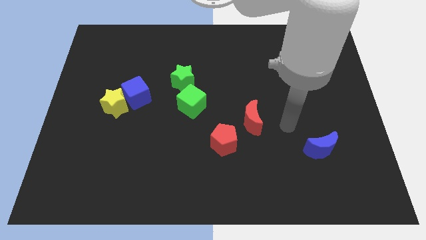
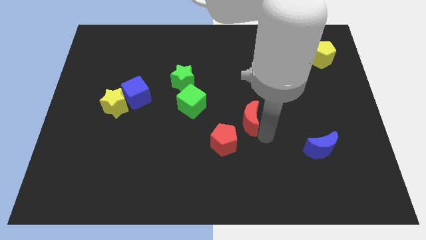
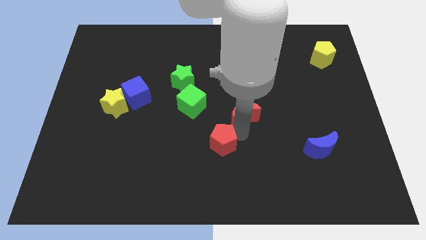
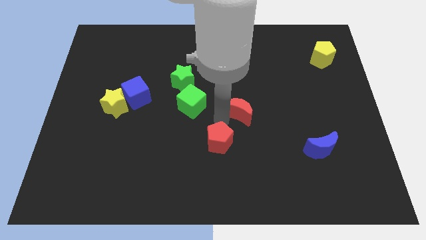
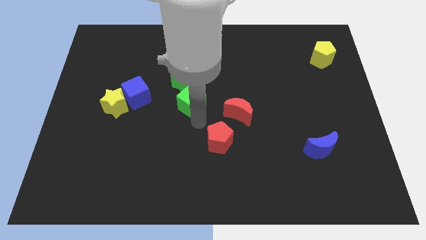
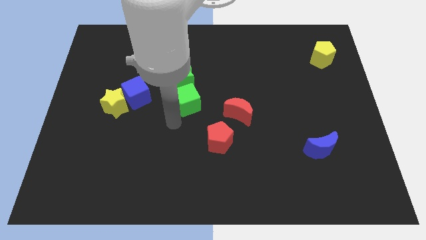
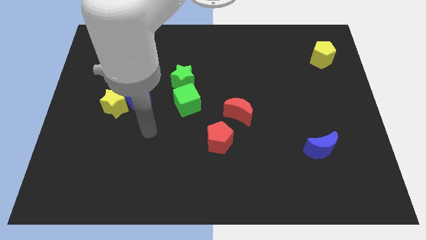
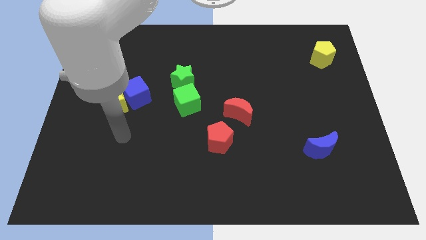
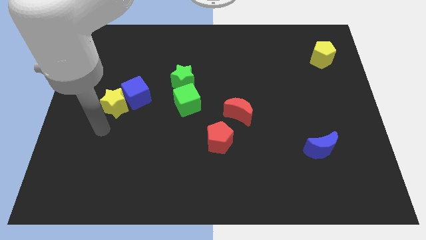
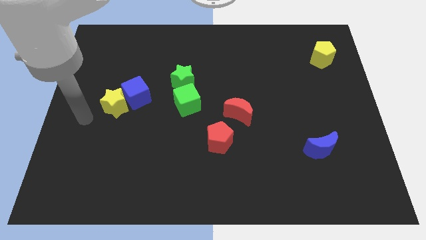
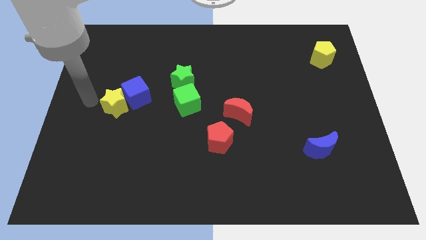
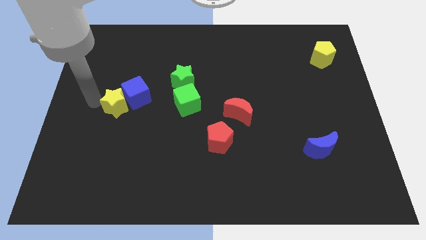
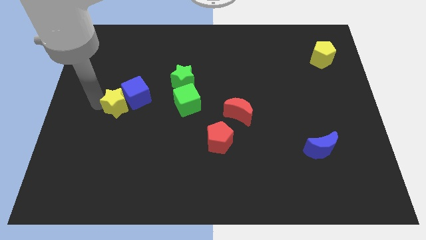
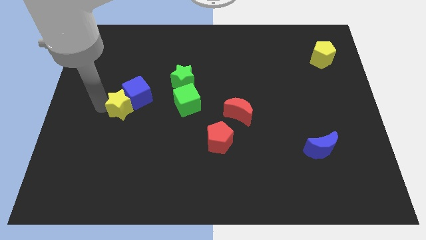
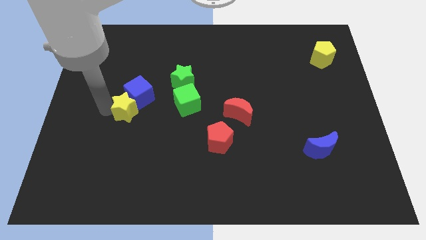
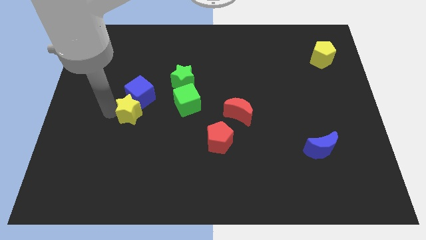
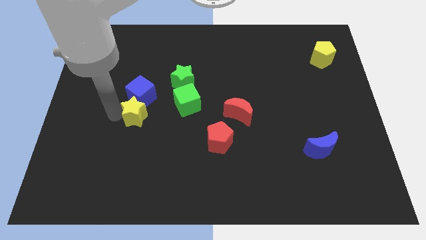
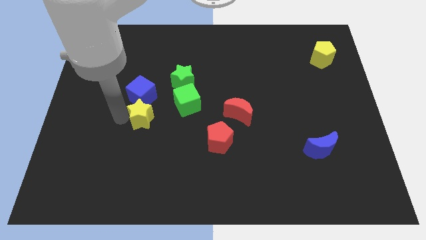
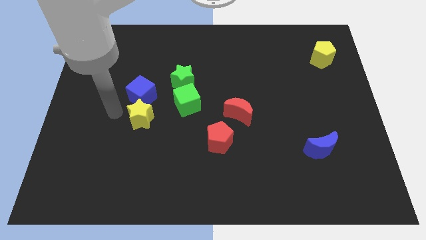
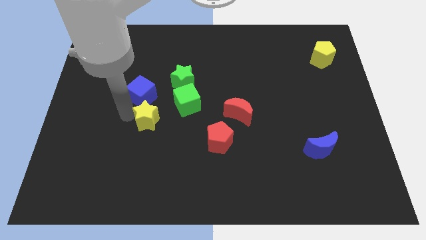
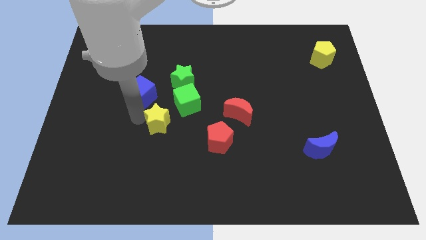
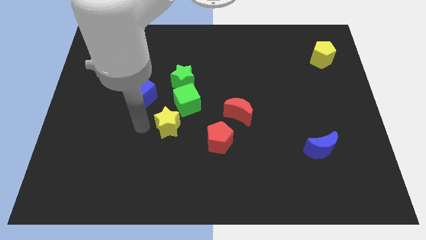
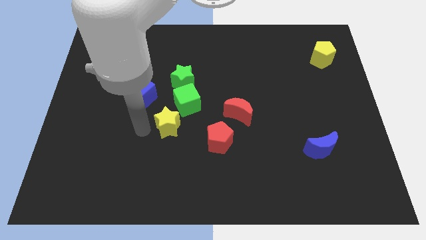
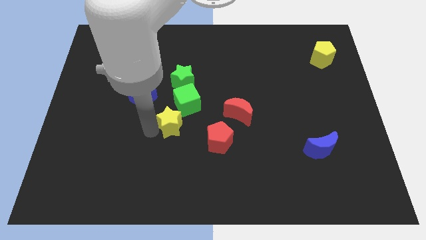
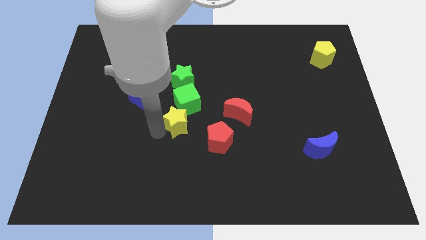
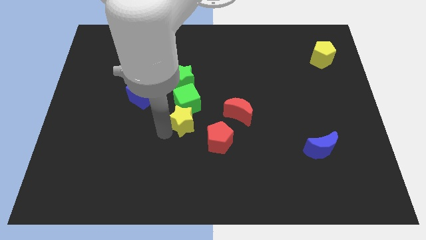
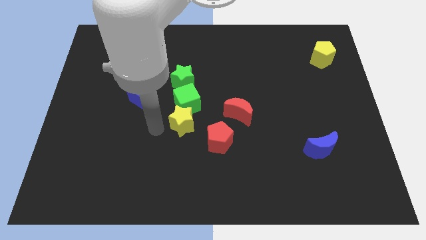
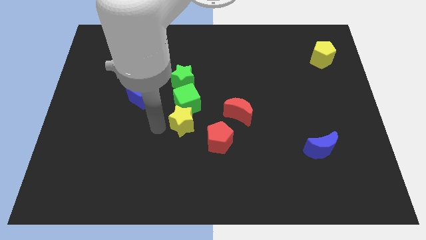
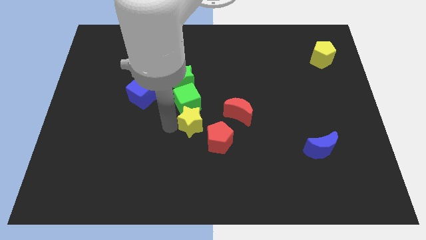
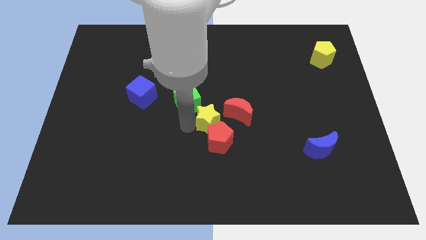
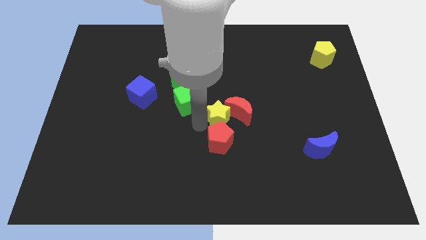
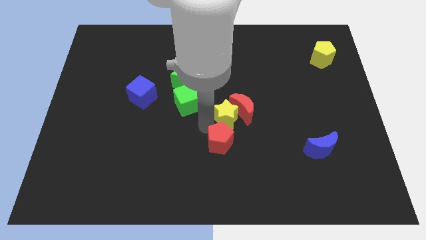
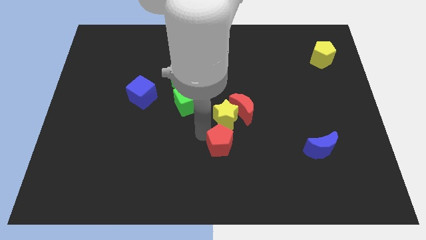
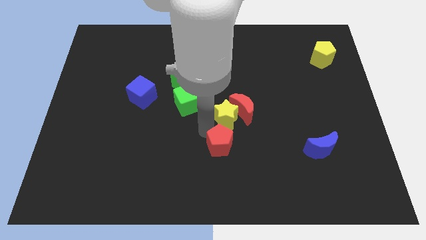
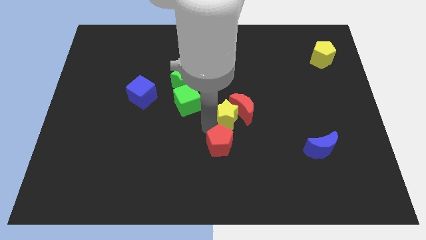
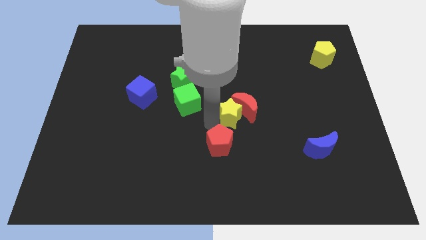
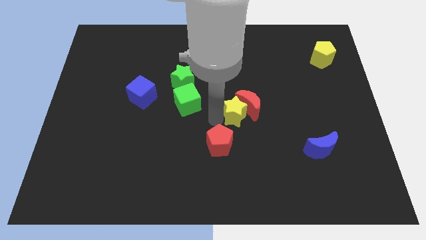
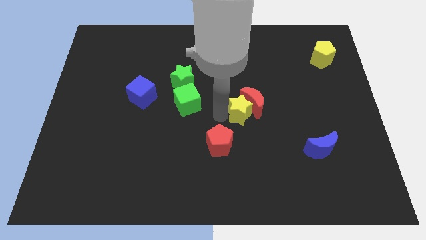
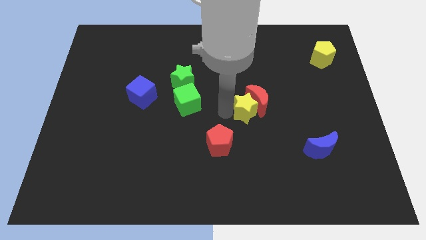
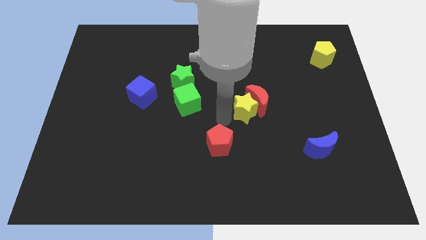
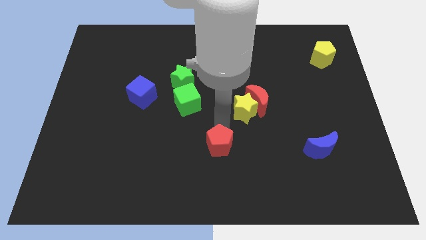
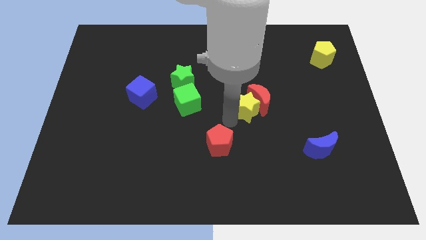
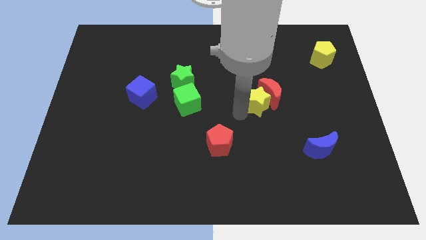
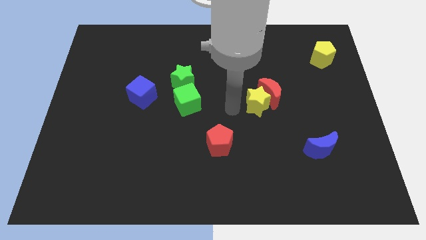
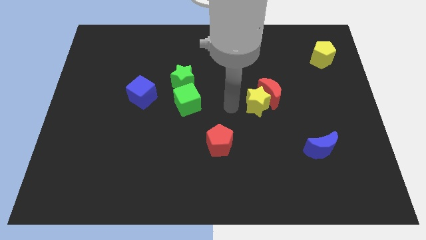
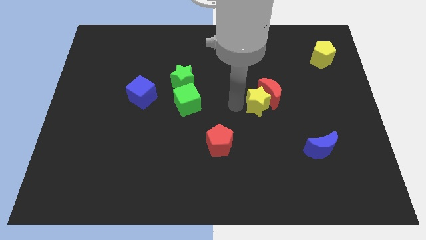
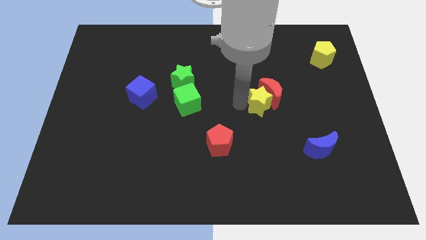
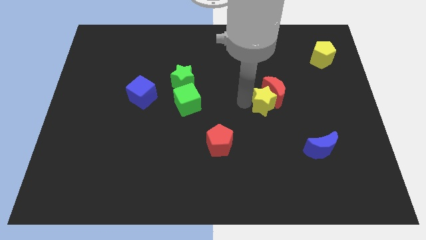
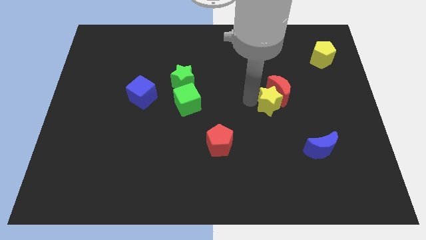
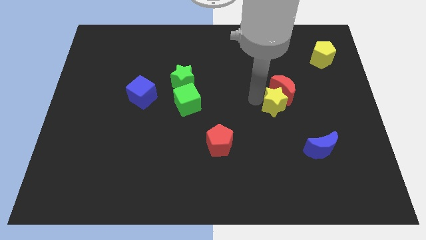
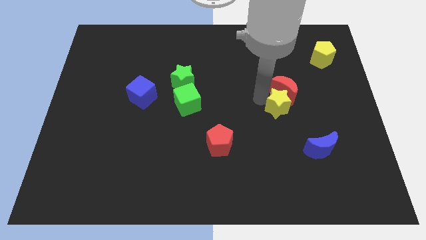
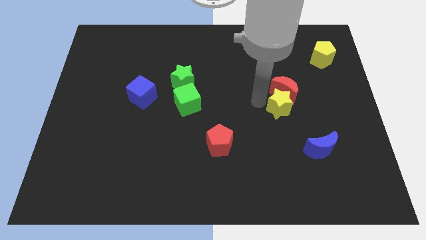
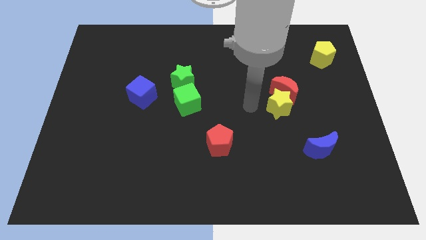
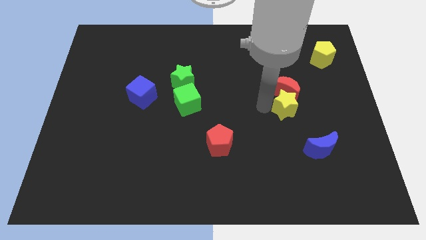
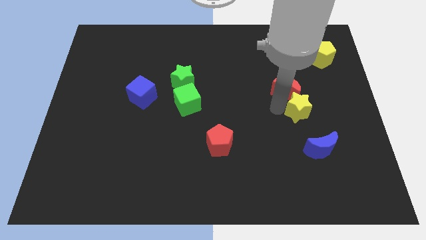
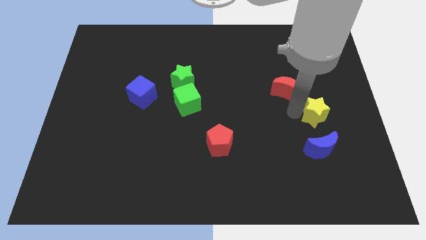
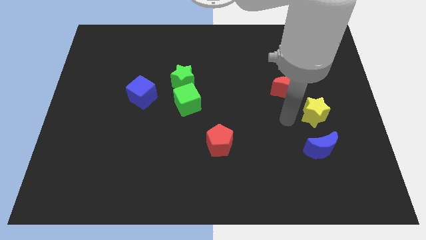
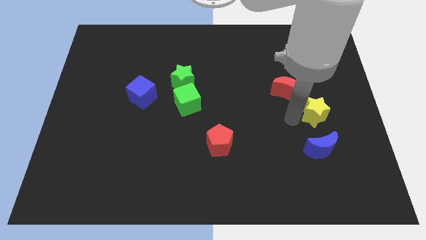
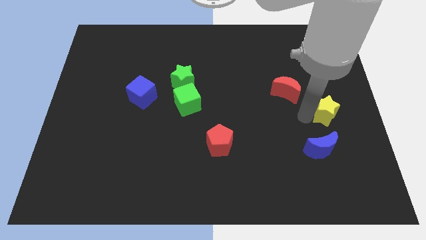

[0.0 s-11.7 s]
push the yellow star to the center right

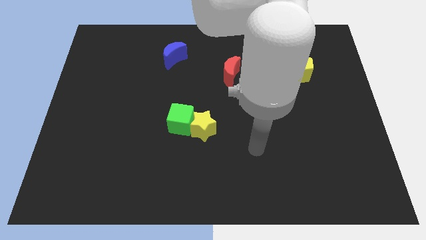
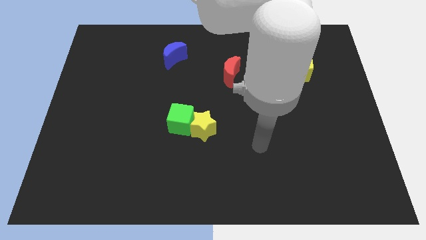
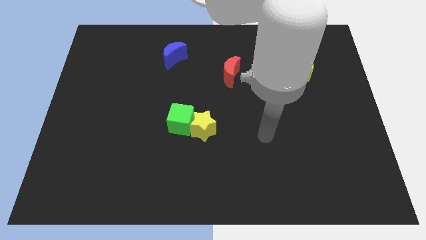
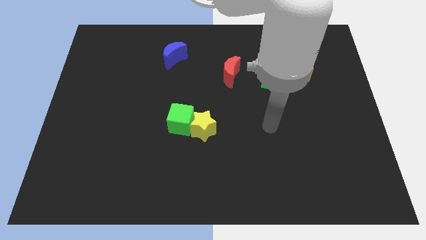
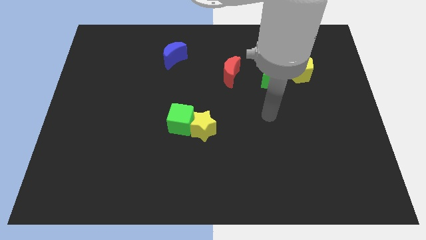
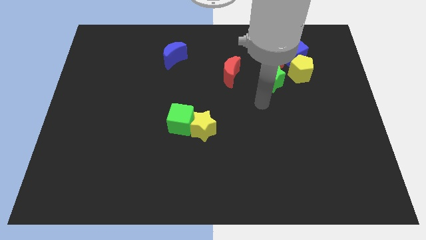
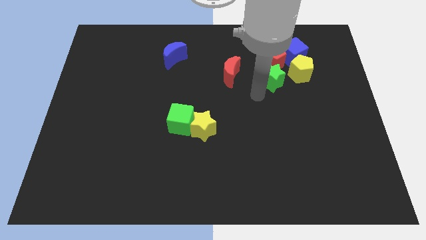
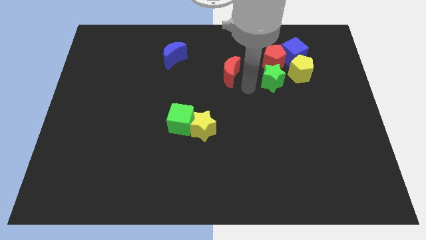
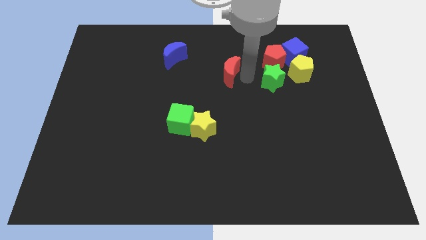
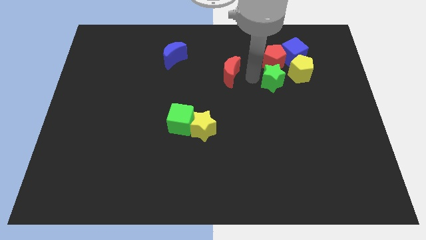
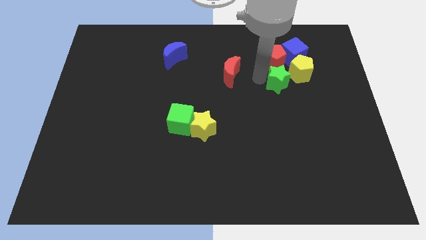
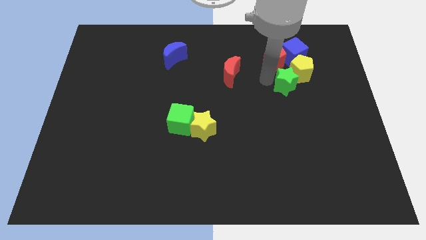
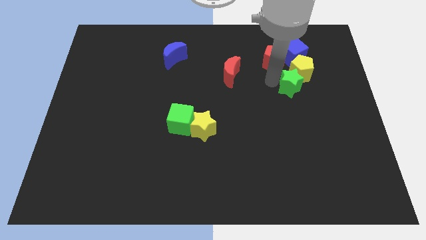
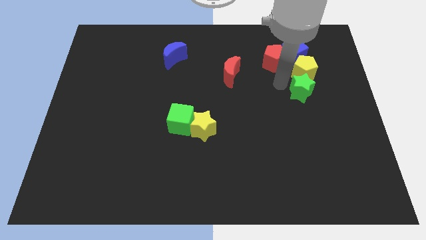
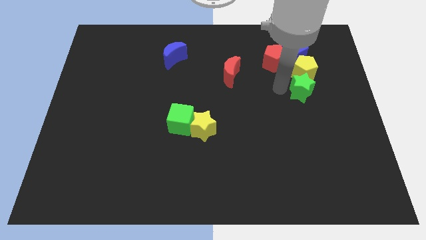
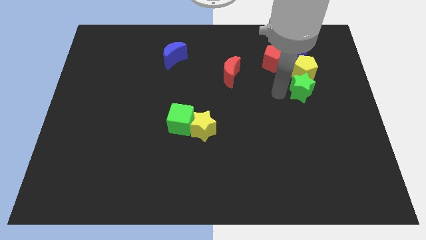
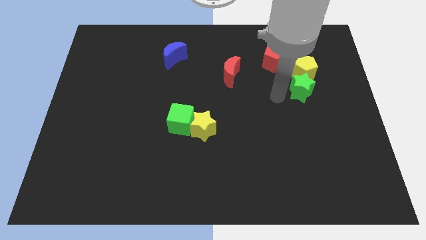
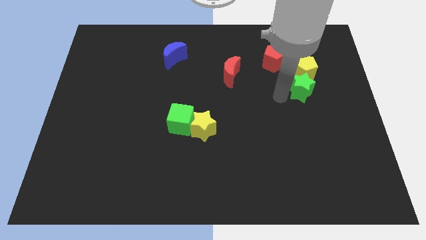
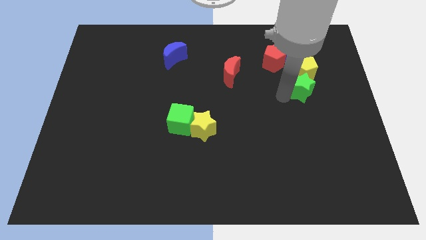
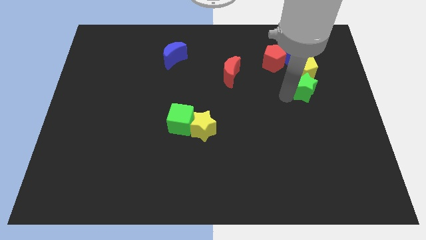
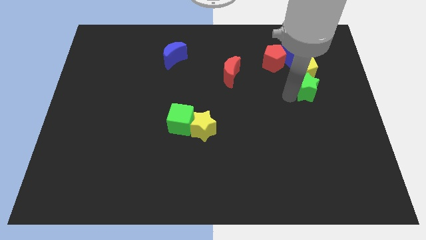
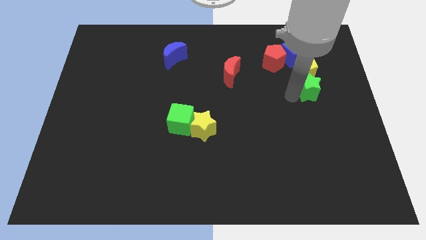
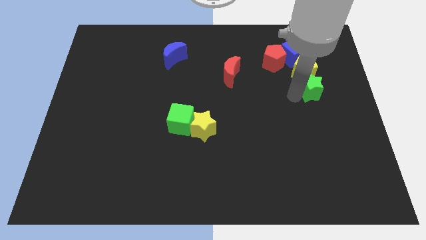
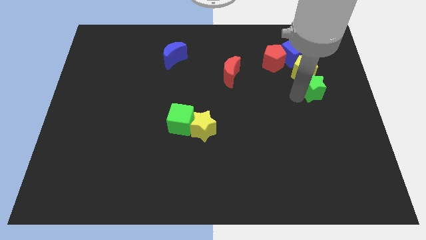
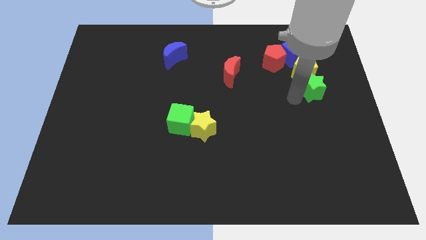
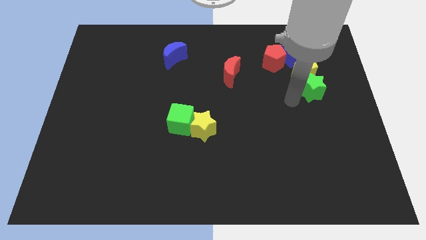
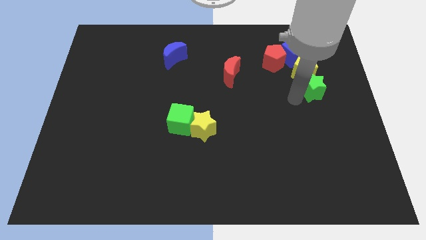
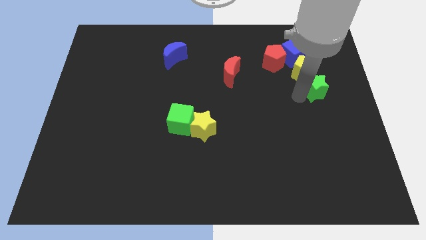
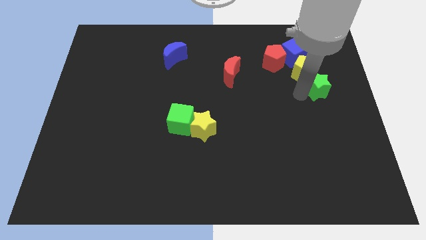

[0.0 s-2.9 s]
move the green star to the right side of the board
